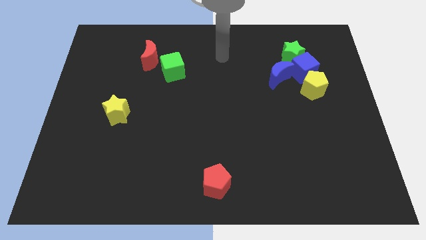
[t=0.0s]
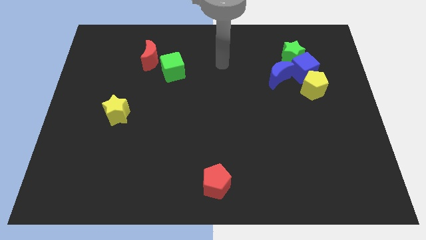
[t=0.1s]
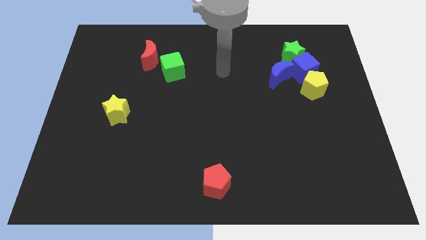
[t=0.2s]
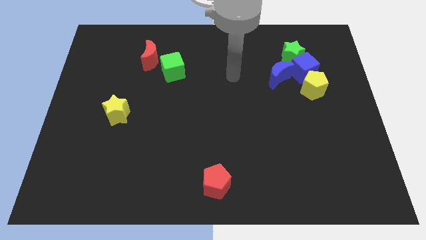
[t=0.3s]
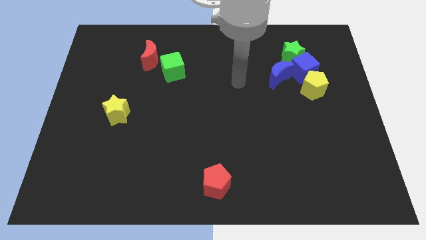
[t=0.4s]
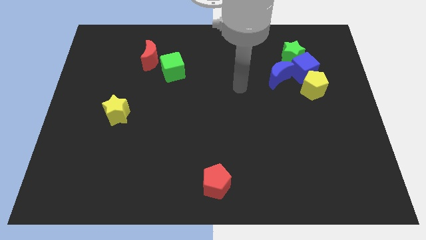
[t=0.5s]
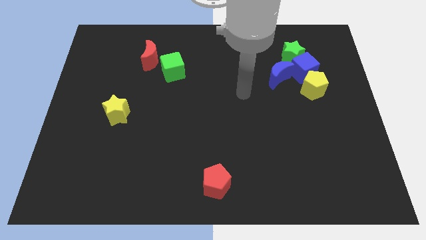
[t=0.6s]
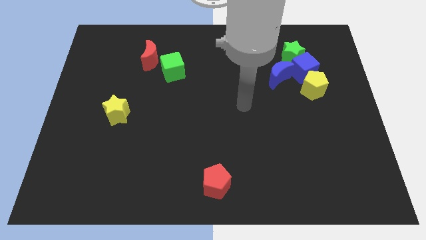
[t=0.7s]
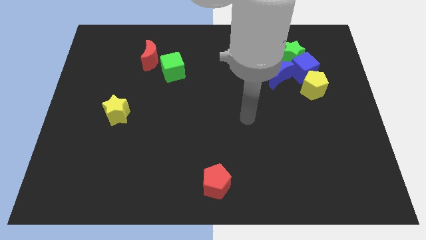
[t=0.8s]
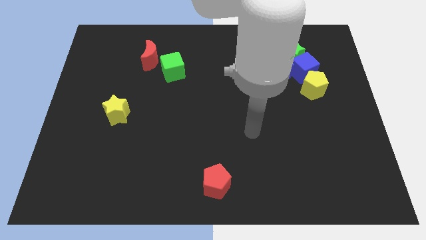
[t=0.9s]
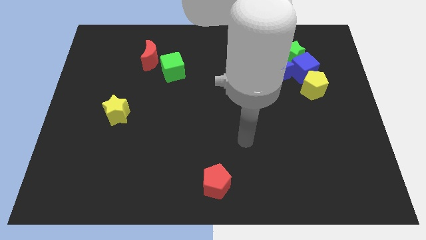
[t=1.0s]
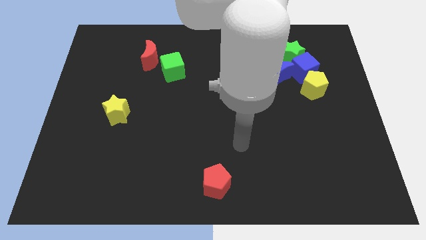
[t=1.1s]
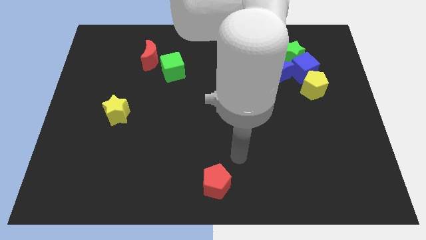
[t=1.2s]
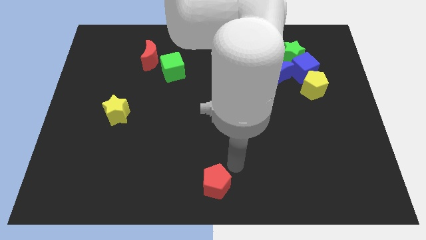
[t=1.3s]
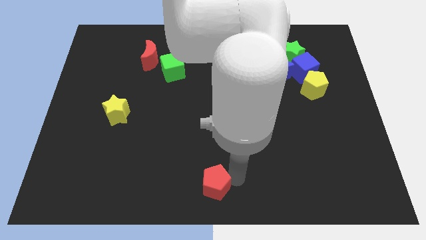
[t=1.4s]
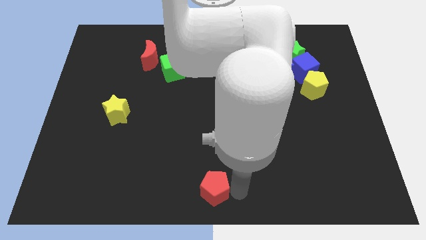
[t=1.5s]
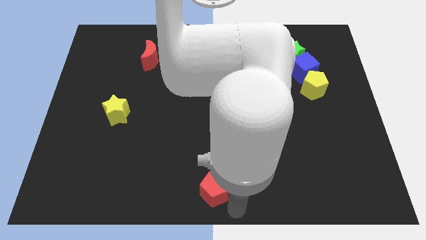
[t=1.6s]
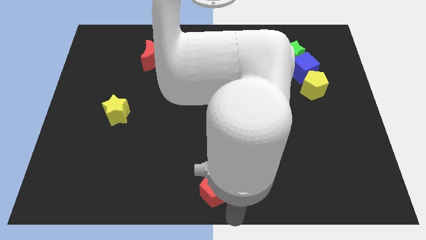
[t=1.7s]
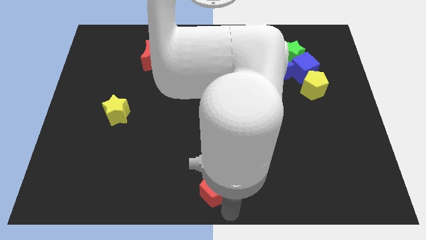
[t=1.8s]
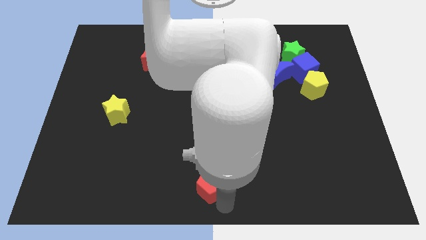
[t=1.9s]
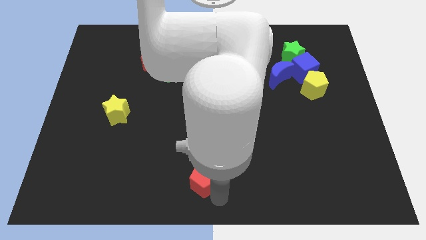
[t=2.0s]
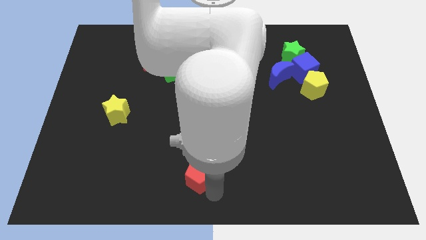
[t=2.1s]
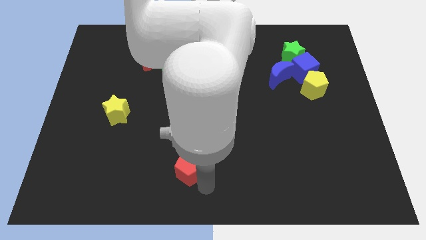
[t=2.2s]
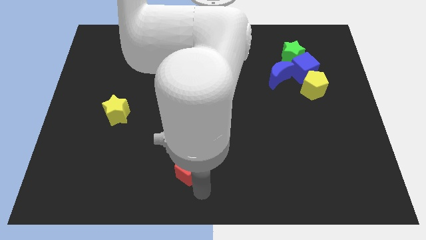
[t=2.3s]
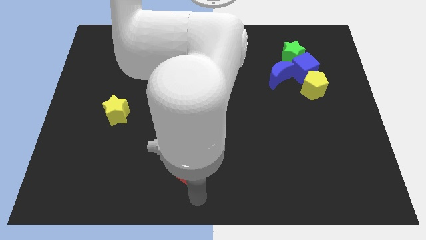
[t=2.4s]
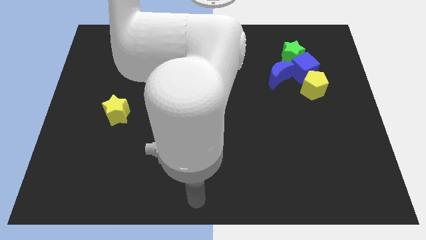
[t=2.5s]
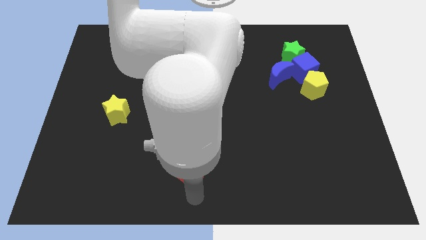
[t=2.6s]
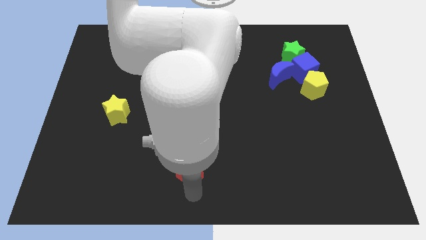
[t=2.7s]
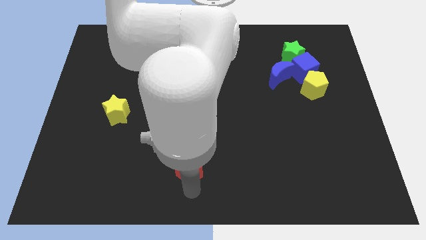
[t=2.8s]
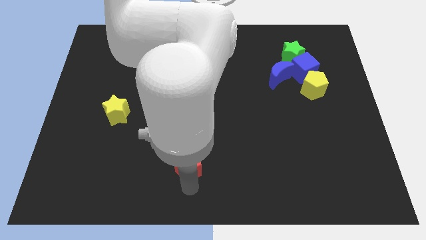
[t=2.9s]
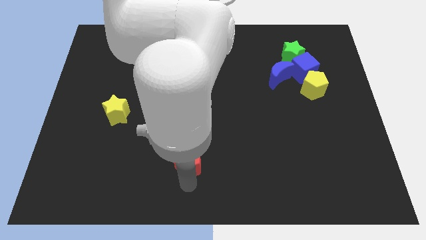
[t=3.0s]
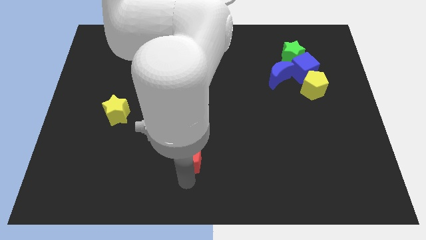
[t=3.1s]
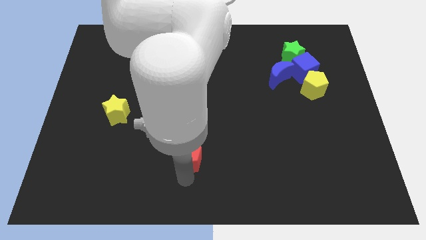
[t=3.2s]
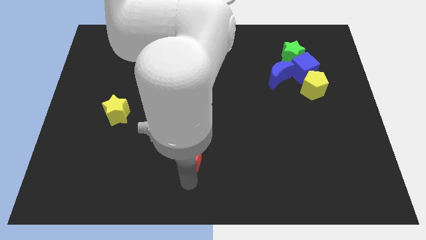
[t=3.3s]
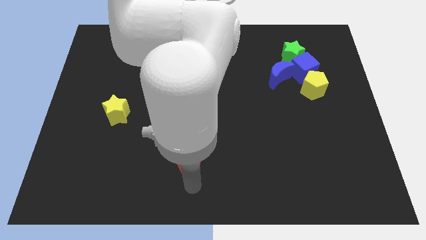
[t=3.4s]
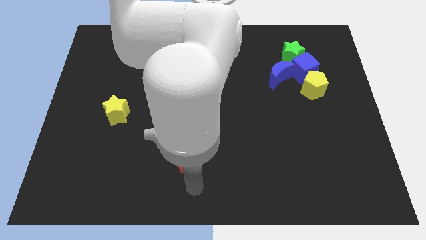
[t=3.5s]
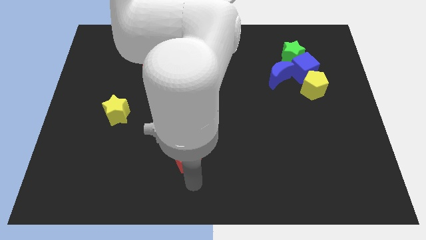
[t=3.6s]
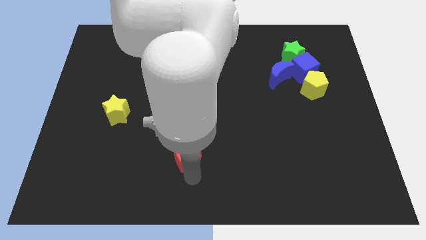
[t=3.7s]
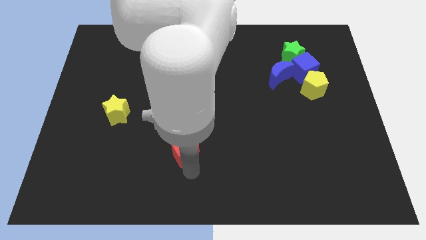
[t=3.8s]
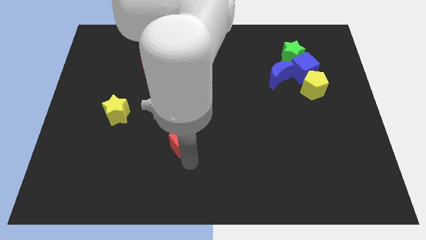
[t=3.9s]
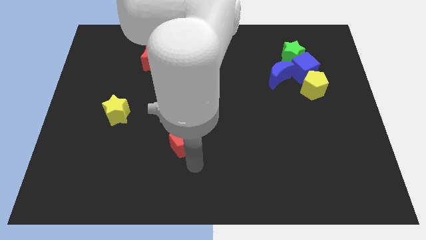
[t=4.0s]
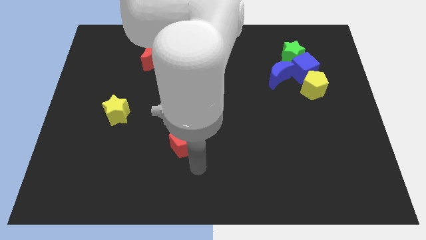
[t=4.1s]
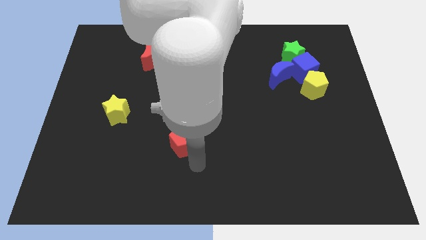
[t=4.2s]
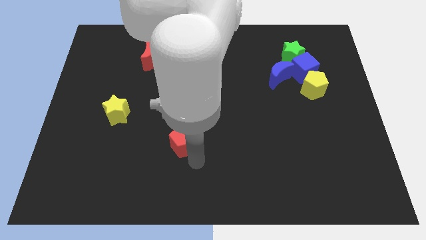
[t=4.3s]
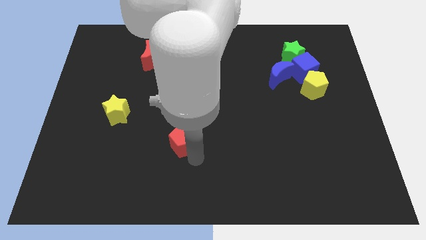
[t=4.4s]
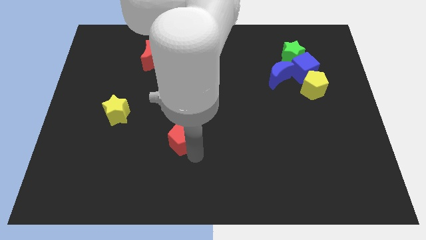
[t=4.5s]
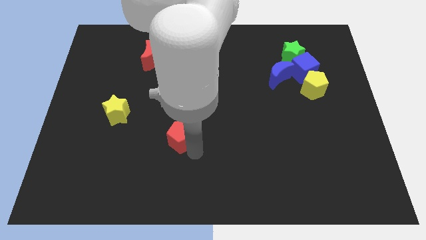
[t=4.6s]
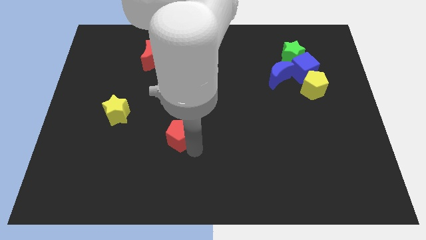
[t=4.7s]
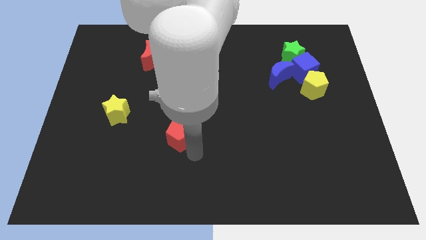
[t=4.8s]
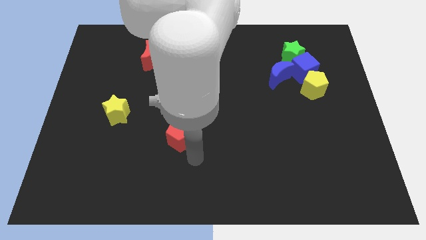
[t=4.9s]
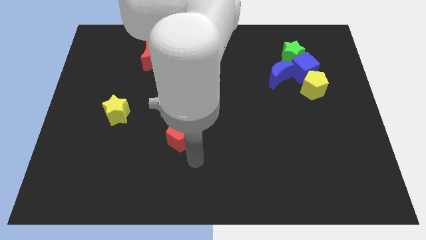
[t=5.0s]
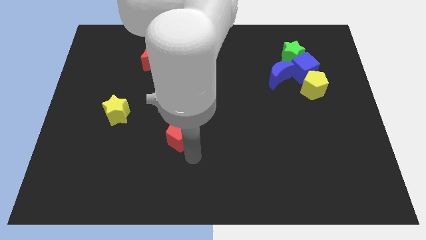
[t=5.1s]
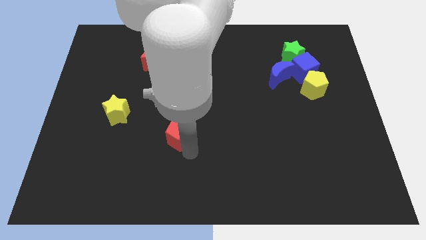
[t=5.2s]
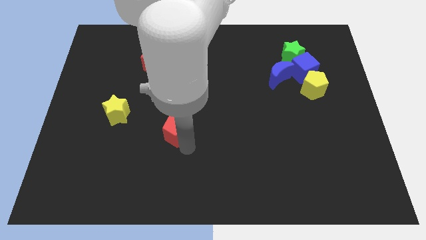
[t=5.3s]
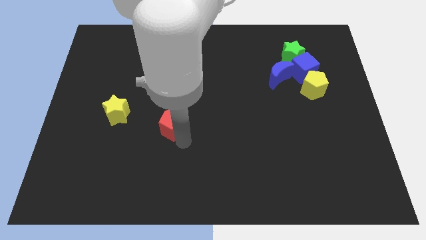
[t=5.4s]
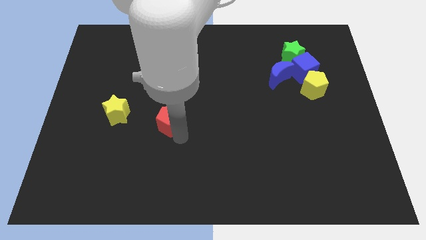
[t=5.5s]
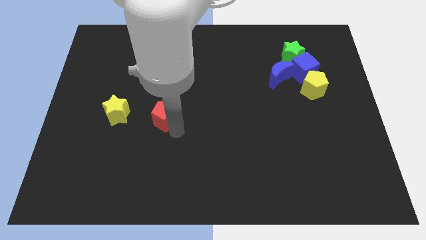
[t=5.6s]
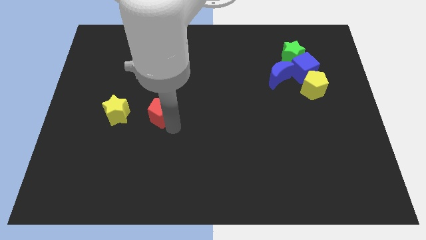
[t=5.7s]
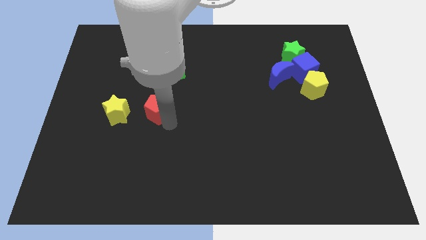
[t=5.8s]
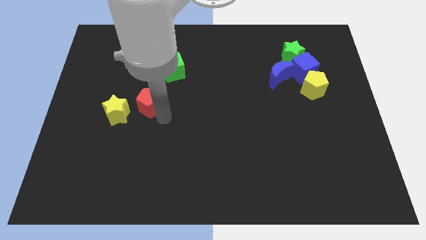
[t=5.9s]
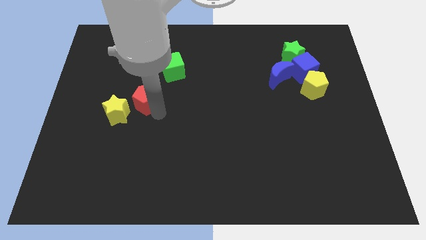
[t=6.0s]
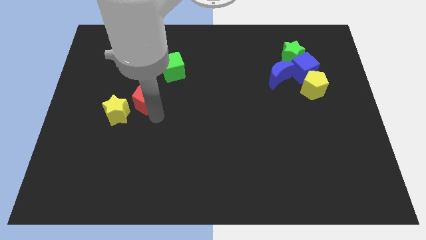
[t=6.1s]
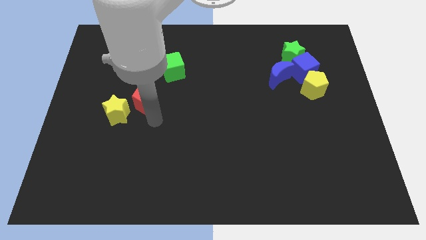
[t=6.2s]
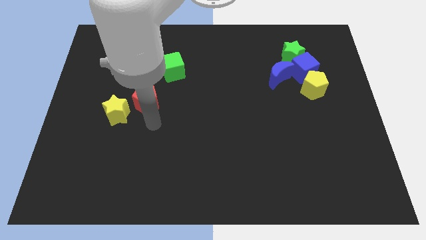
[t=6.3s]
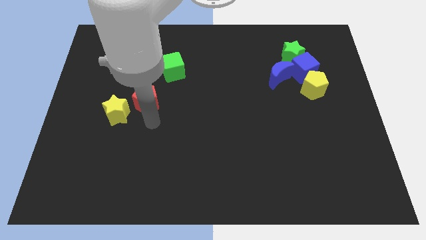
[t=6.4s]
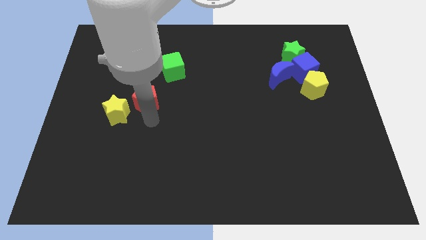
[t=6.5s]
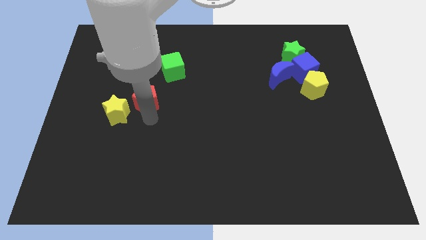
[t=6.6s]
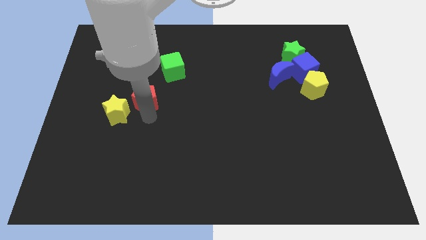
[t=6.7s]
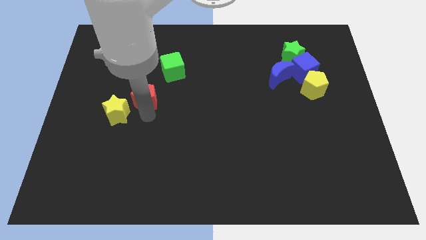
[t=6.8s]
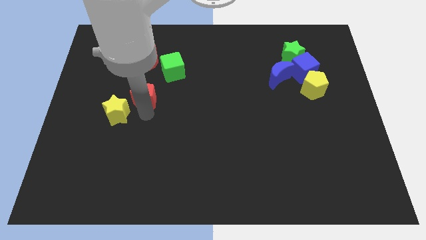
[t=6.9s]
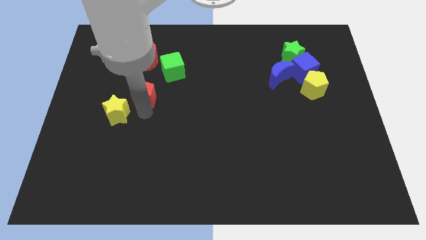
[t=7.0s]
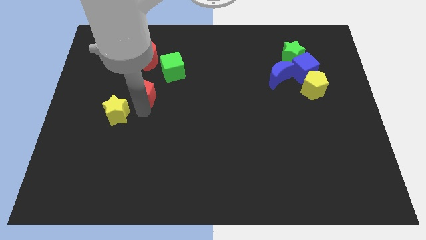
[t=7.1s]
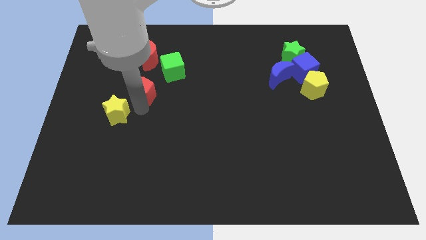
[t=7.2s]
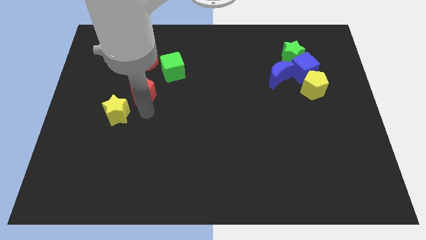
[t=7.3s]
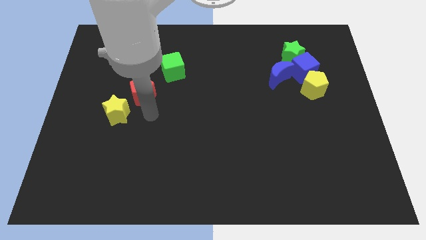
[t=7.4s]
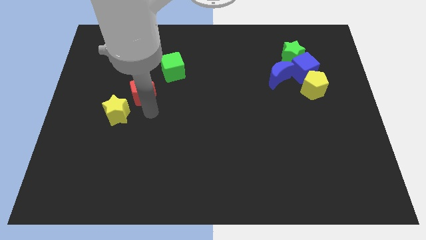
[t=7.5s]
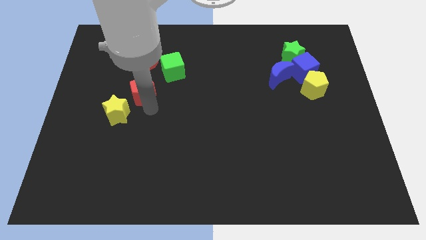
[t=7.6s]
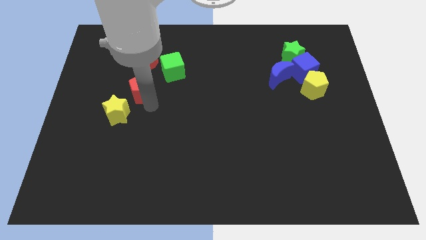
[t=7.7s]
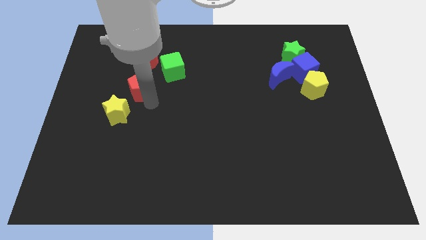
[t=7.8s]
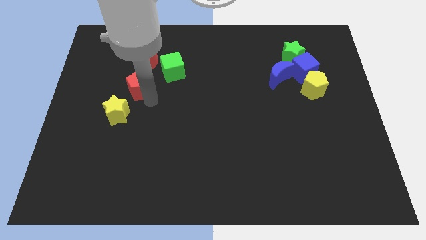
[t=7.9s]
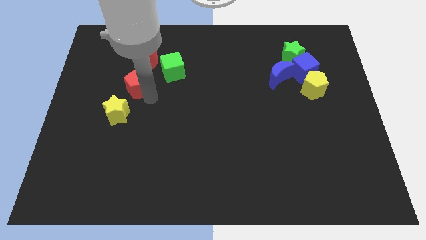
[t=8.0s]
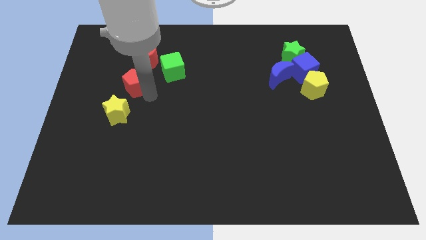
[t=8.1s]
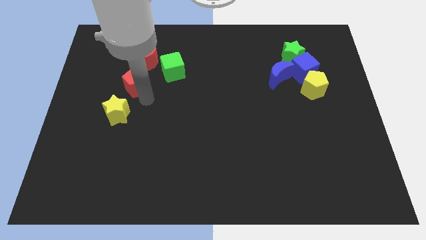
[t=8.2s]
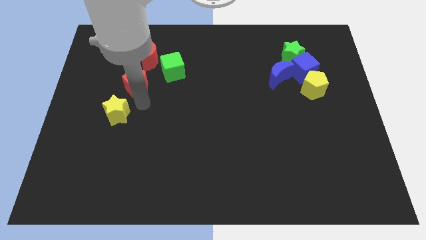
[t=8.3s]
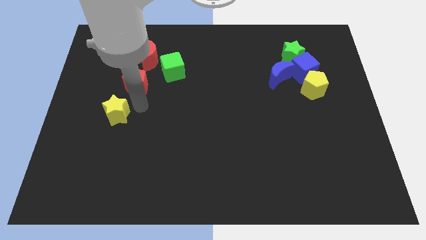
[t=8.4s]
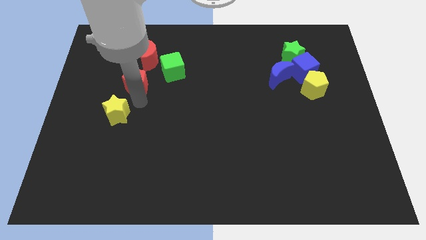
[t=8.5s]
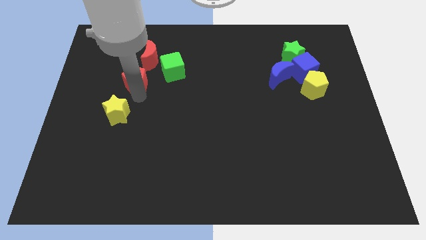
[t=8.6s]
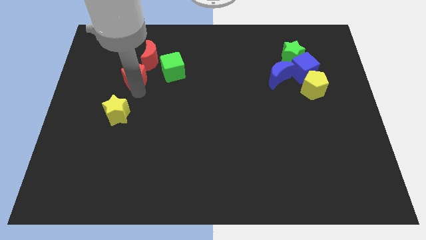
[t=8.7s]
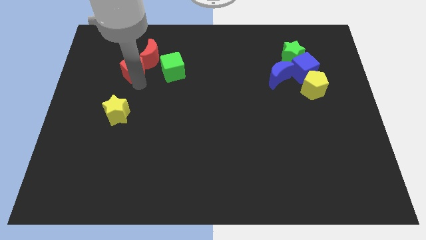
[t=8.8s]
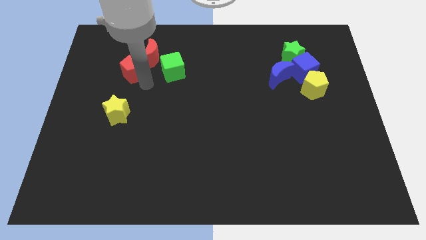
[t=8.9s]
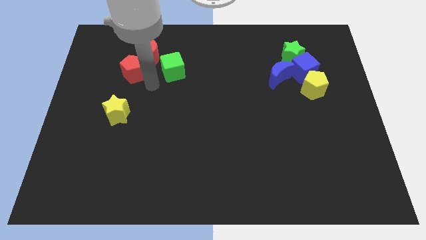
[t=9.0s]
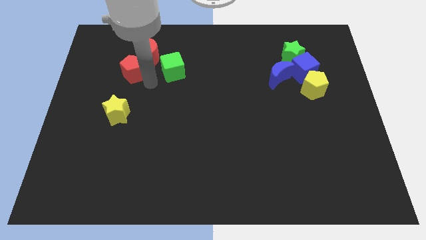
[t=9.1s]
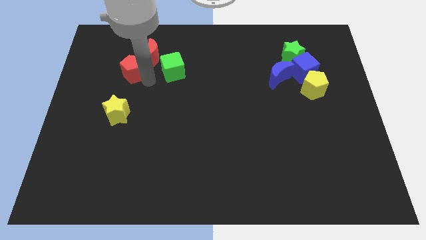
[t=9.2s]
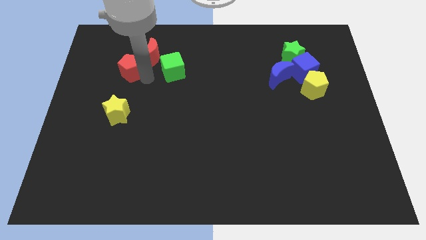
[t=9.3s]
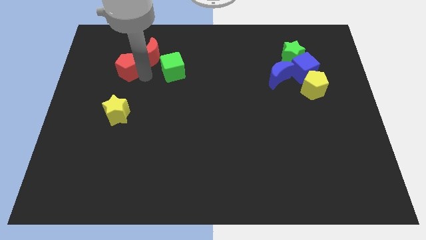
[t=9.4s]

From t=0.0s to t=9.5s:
push the red pentagon just left of the red moon
